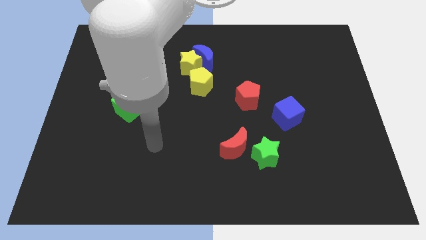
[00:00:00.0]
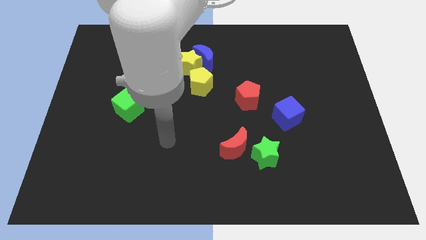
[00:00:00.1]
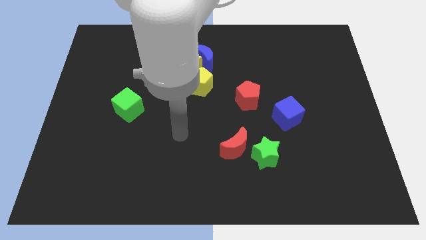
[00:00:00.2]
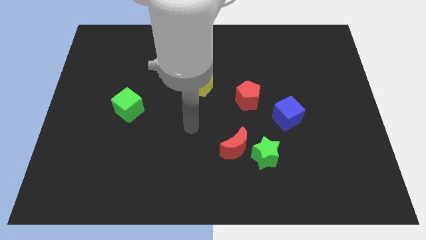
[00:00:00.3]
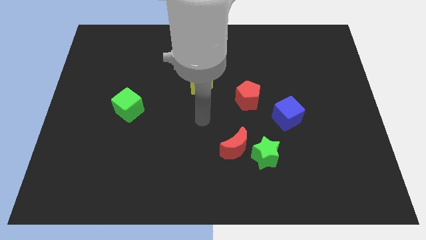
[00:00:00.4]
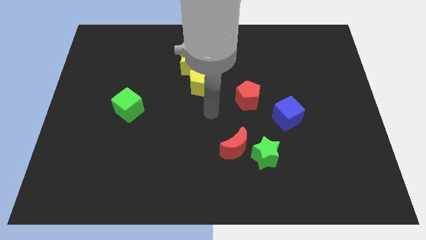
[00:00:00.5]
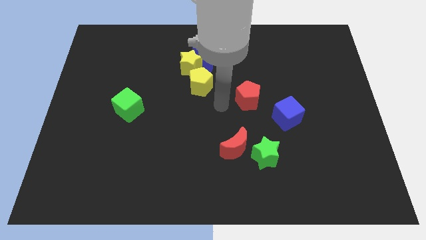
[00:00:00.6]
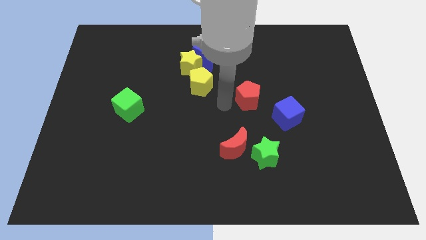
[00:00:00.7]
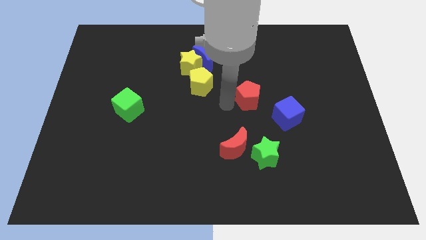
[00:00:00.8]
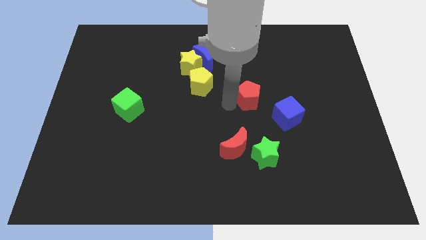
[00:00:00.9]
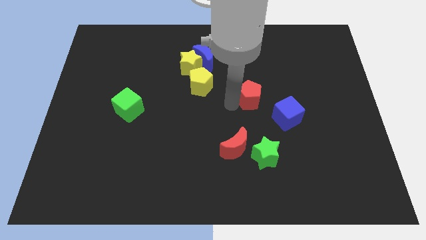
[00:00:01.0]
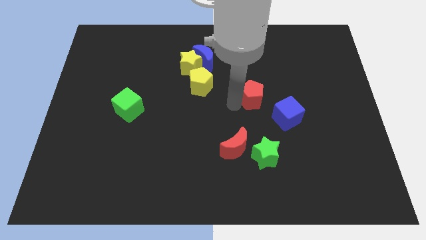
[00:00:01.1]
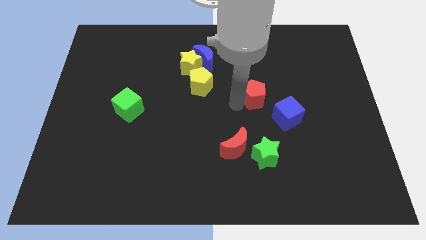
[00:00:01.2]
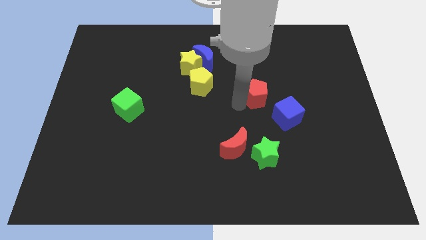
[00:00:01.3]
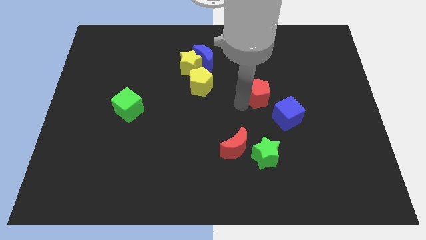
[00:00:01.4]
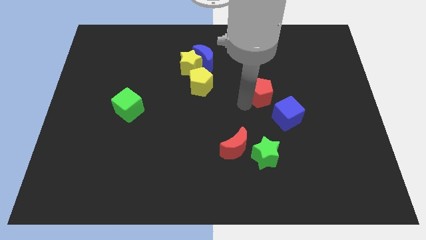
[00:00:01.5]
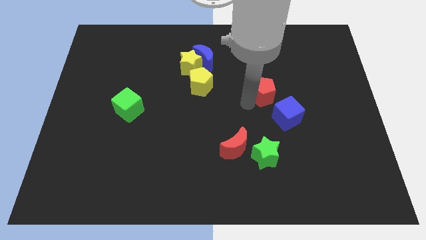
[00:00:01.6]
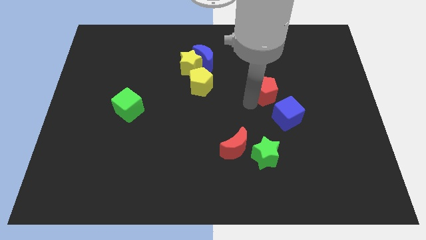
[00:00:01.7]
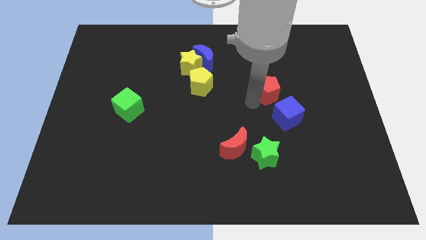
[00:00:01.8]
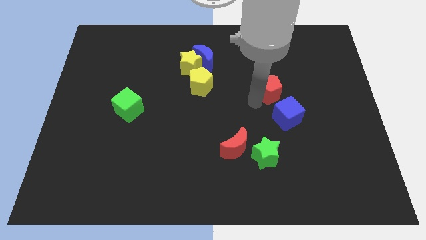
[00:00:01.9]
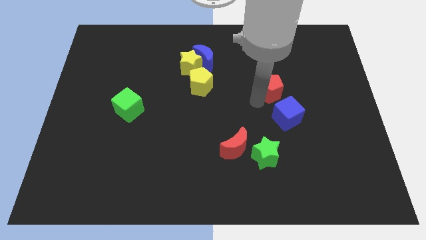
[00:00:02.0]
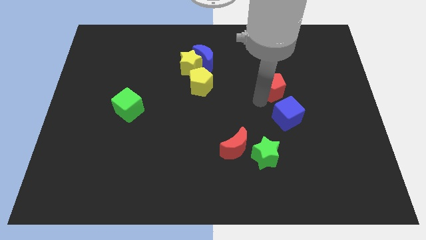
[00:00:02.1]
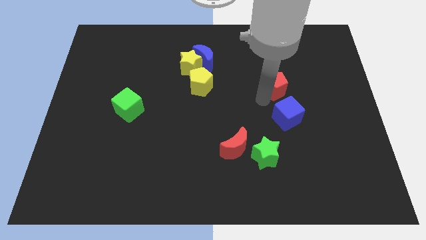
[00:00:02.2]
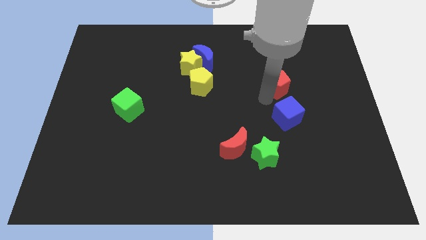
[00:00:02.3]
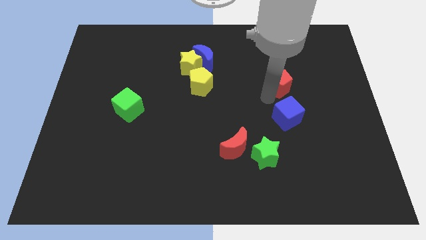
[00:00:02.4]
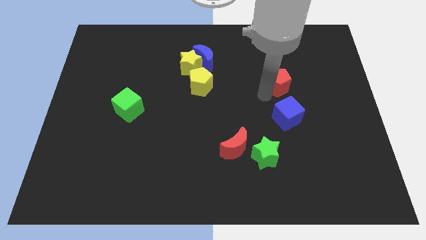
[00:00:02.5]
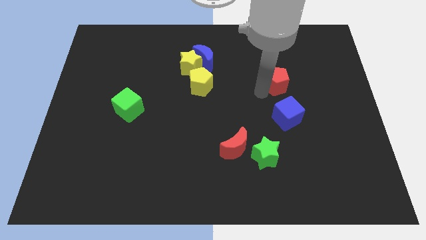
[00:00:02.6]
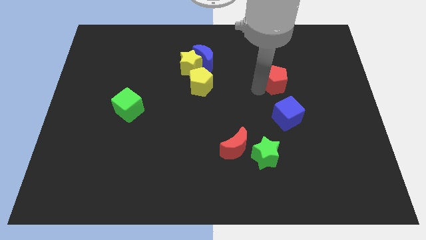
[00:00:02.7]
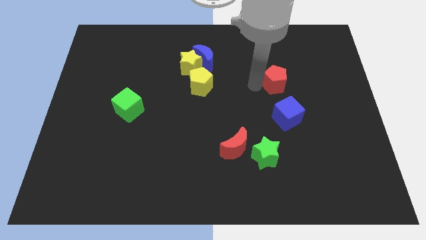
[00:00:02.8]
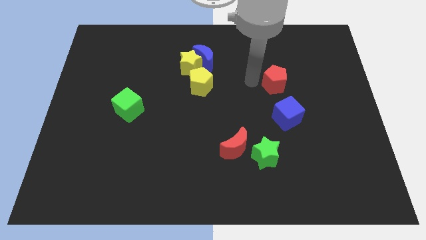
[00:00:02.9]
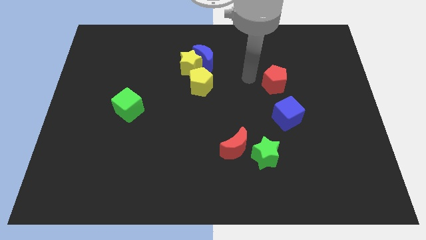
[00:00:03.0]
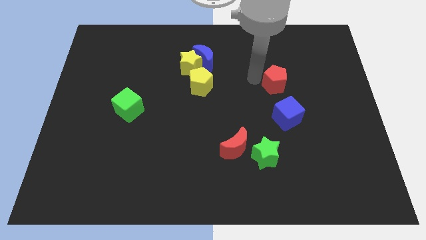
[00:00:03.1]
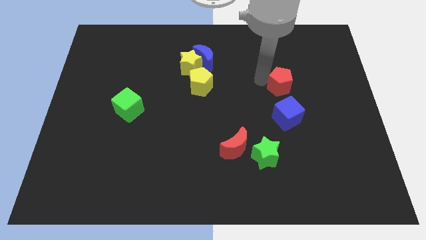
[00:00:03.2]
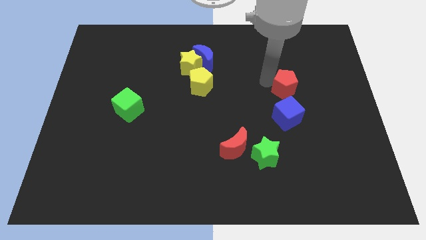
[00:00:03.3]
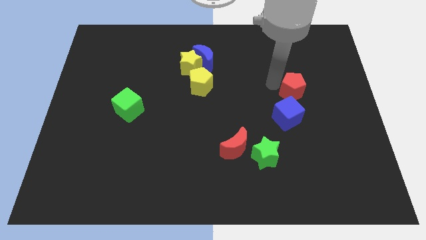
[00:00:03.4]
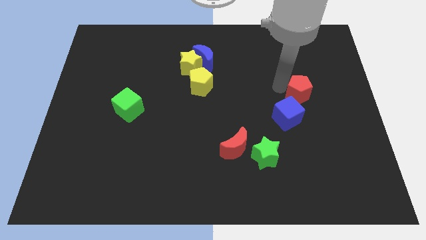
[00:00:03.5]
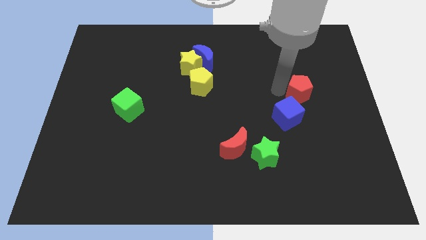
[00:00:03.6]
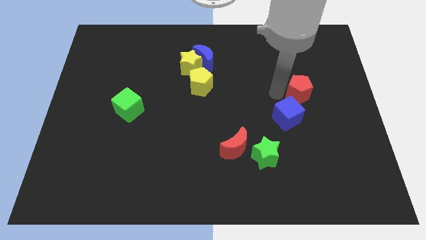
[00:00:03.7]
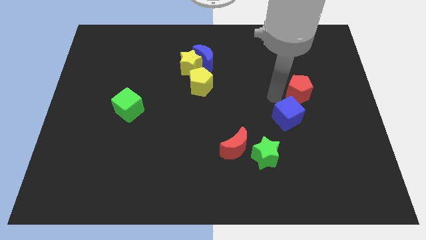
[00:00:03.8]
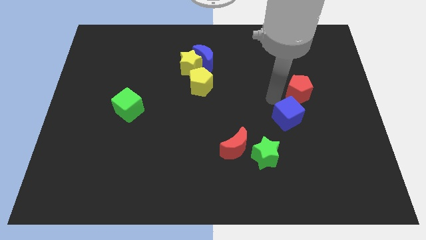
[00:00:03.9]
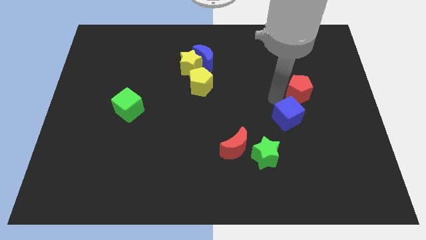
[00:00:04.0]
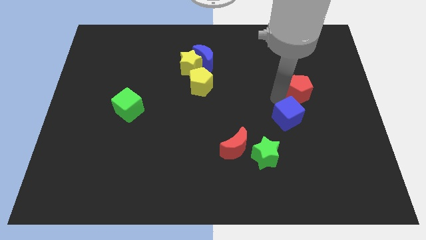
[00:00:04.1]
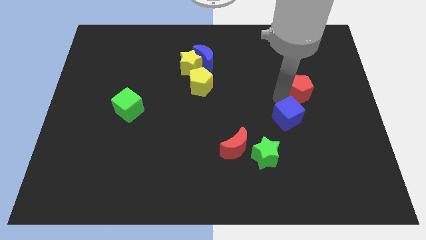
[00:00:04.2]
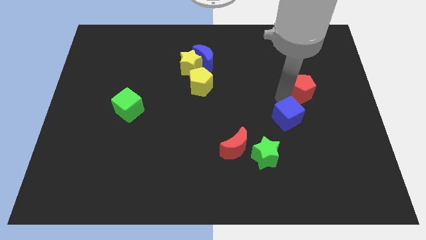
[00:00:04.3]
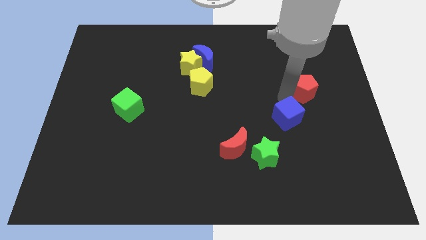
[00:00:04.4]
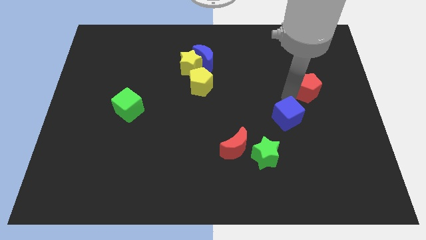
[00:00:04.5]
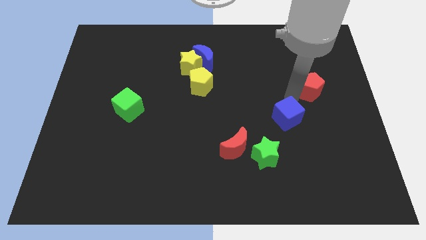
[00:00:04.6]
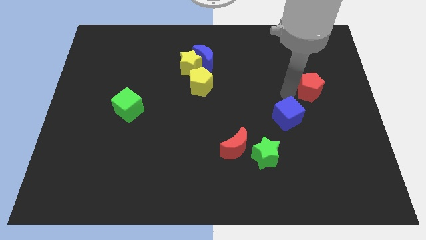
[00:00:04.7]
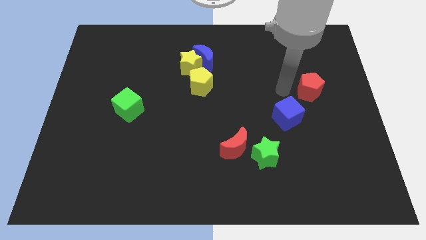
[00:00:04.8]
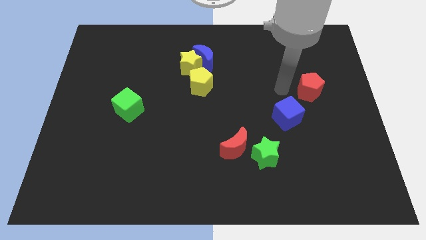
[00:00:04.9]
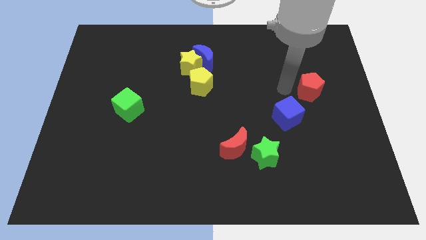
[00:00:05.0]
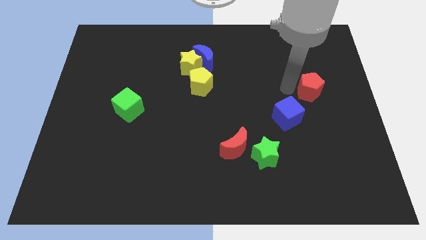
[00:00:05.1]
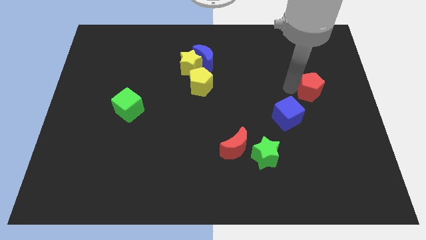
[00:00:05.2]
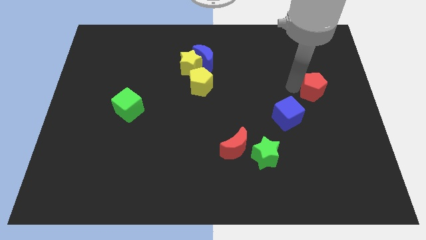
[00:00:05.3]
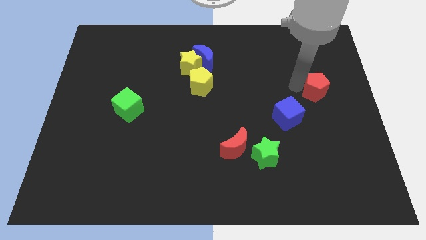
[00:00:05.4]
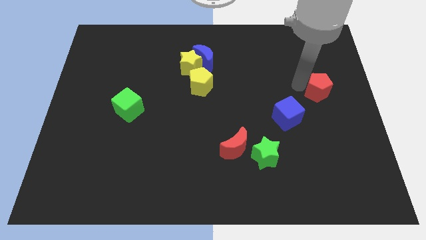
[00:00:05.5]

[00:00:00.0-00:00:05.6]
slide the red pentagon to the center right
